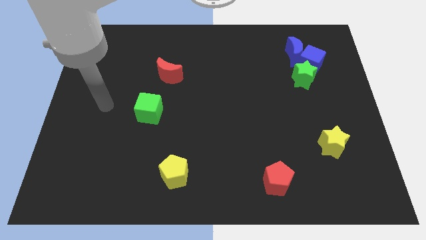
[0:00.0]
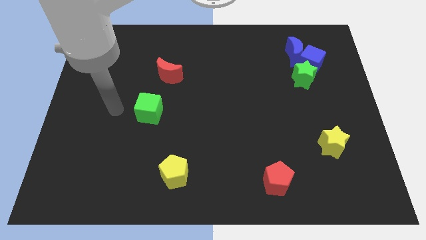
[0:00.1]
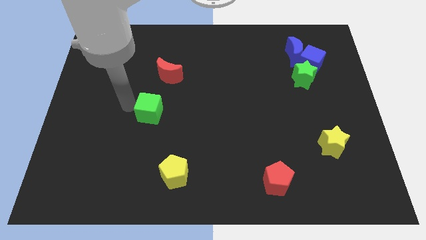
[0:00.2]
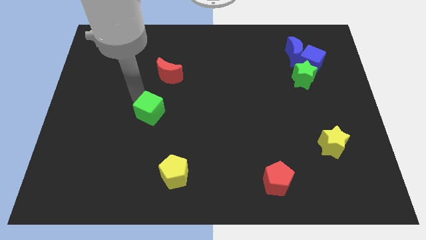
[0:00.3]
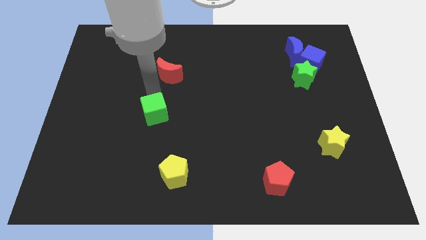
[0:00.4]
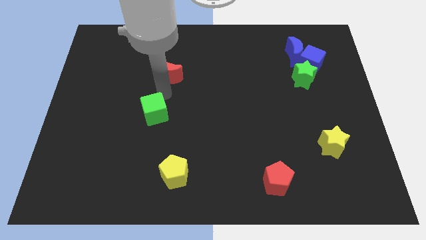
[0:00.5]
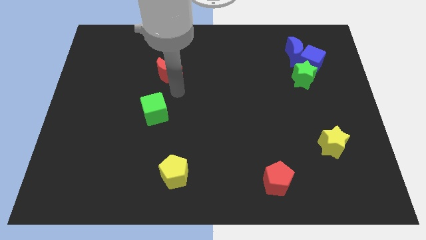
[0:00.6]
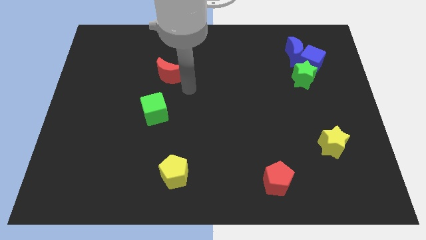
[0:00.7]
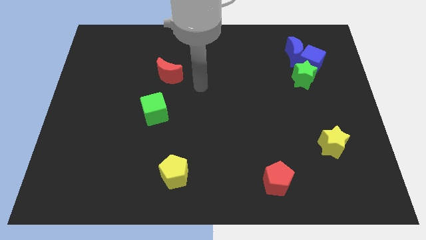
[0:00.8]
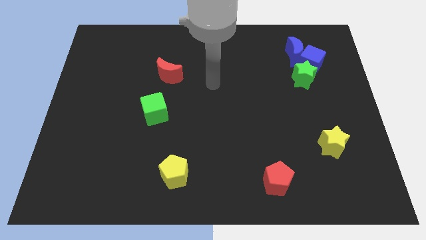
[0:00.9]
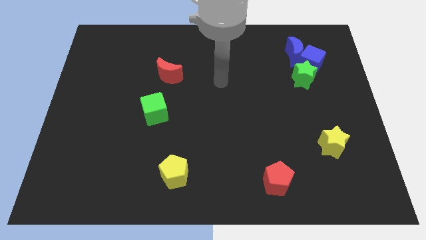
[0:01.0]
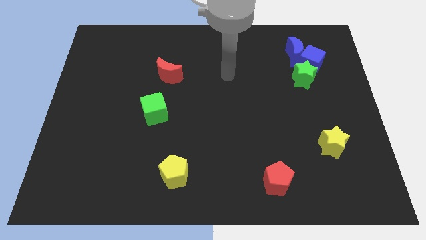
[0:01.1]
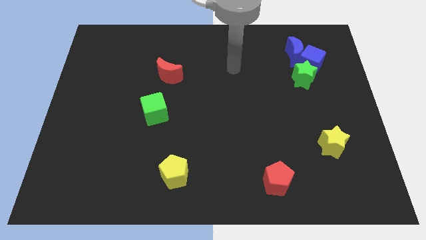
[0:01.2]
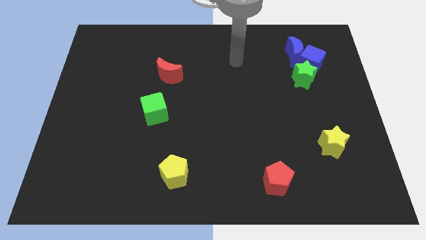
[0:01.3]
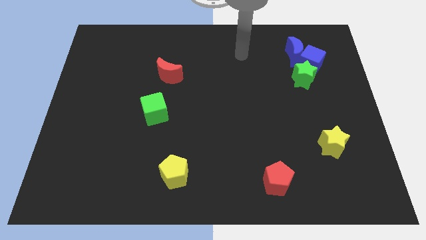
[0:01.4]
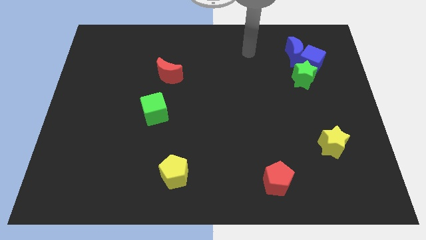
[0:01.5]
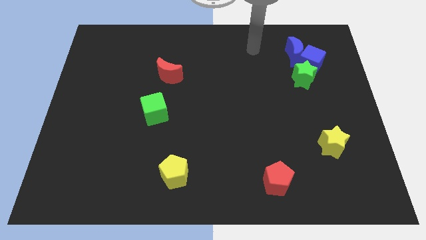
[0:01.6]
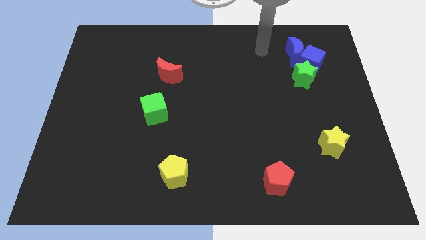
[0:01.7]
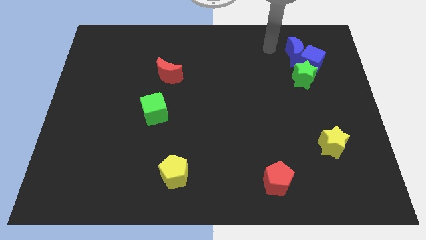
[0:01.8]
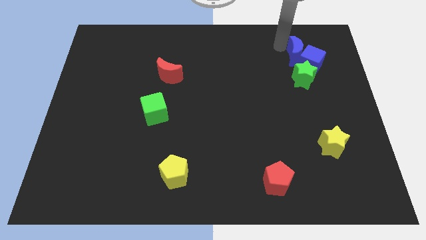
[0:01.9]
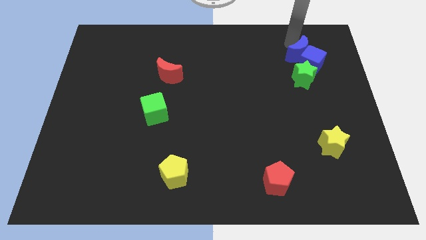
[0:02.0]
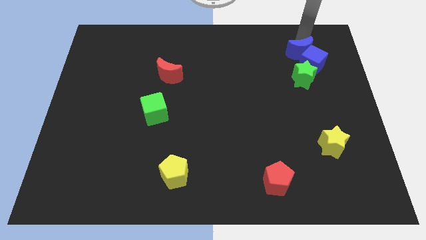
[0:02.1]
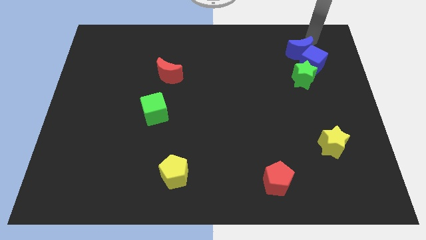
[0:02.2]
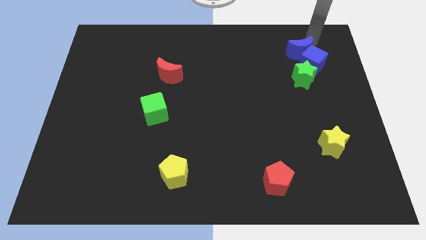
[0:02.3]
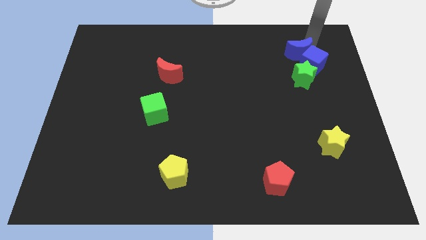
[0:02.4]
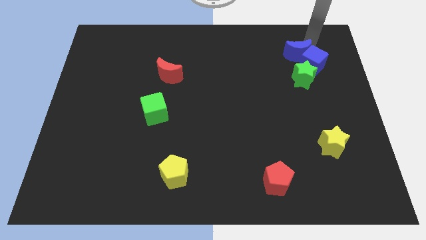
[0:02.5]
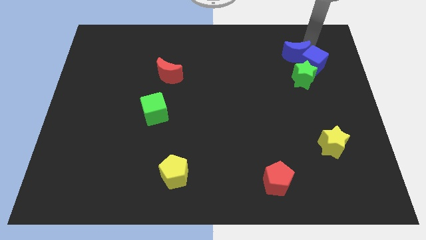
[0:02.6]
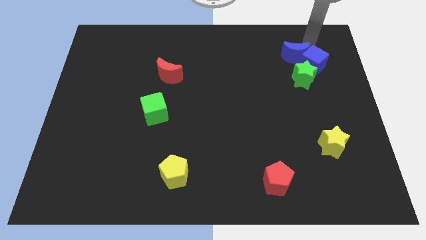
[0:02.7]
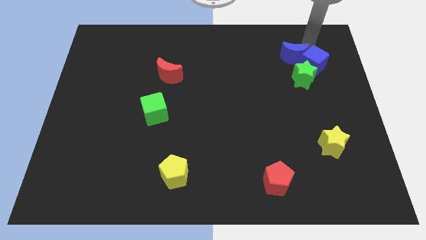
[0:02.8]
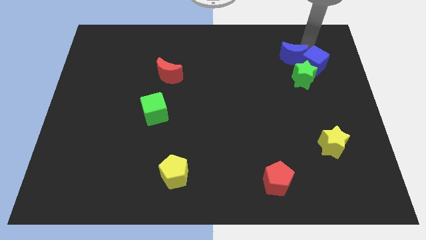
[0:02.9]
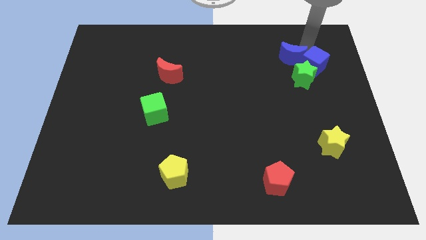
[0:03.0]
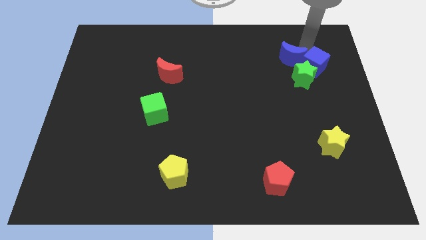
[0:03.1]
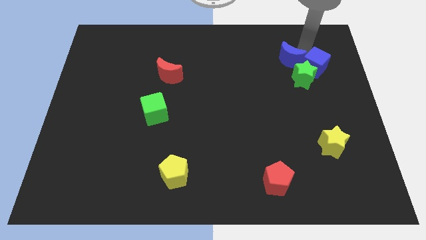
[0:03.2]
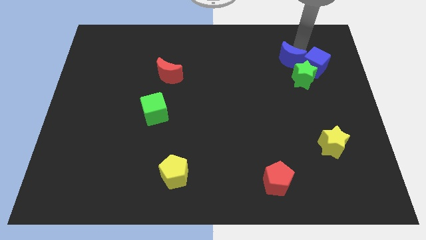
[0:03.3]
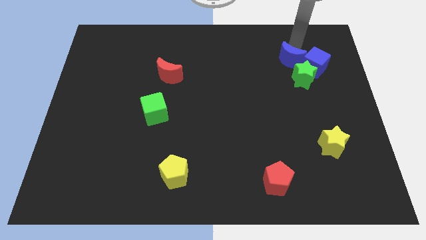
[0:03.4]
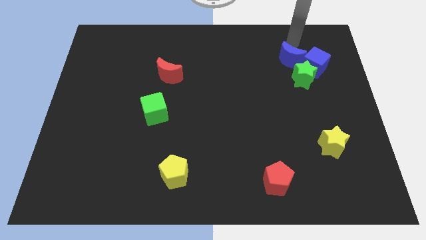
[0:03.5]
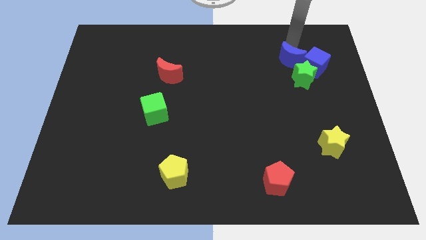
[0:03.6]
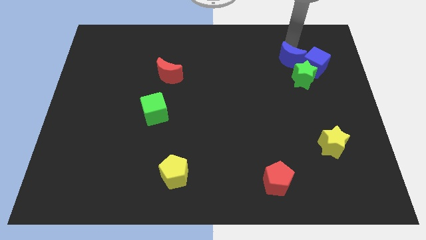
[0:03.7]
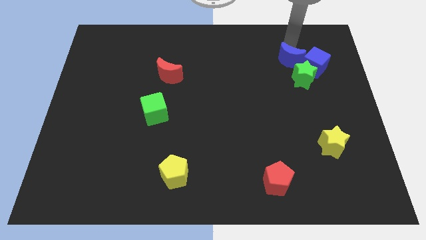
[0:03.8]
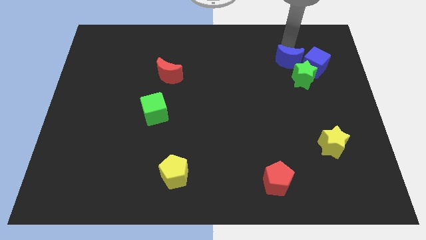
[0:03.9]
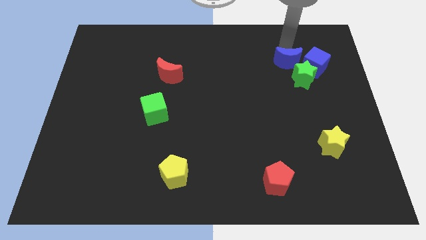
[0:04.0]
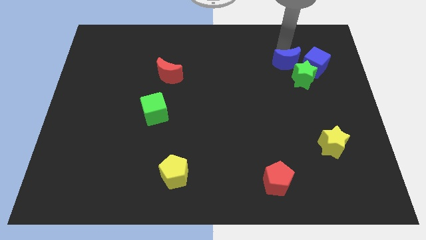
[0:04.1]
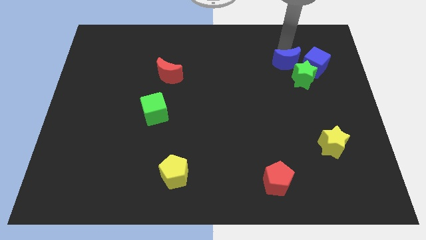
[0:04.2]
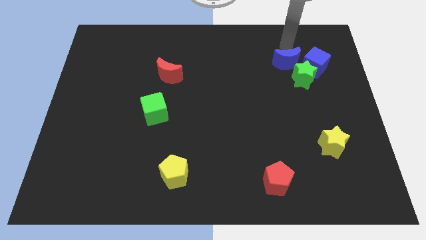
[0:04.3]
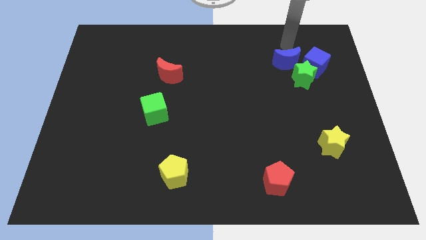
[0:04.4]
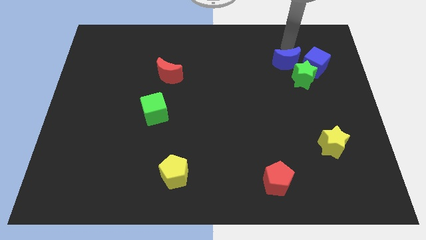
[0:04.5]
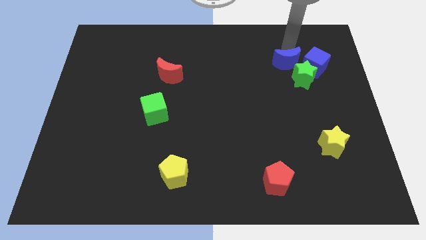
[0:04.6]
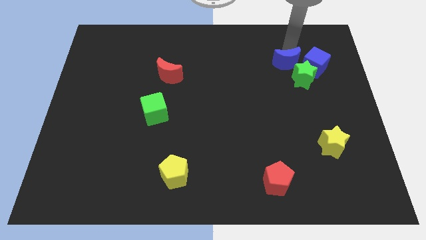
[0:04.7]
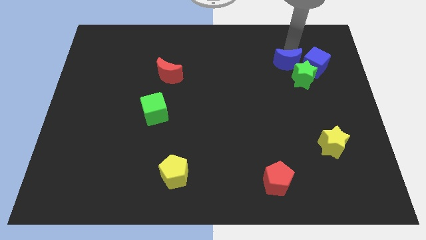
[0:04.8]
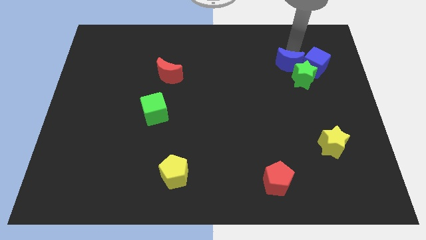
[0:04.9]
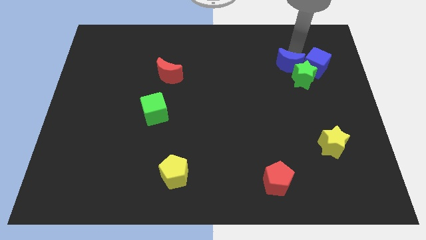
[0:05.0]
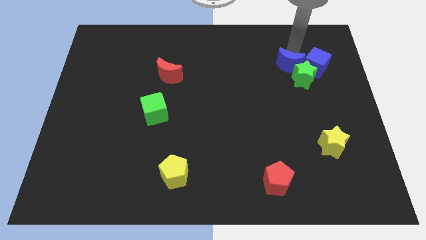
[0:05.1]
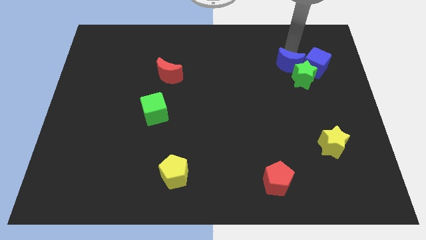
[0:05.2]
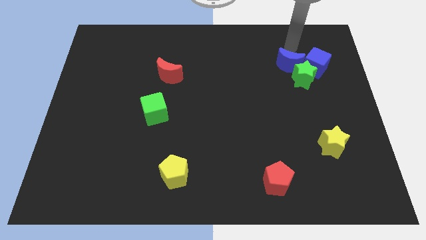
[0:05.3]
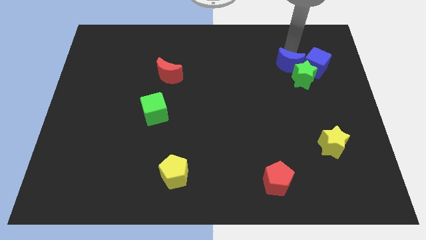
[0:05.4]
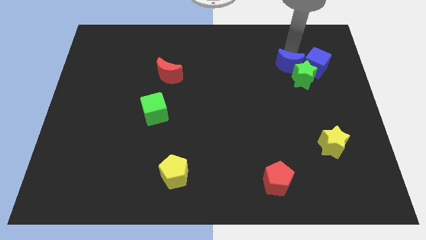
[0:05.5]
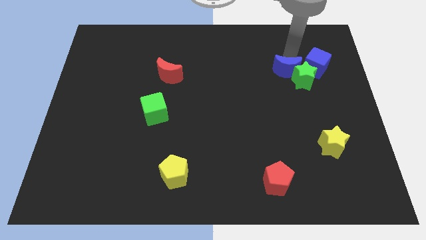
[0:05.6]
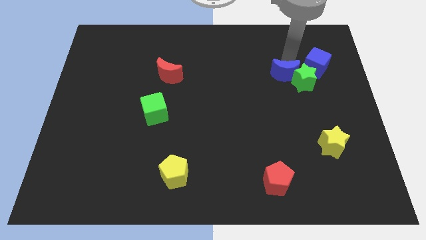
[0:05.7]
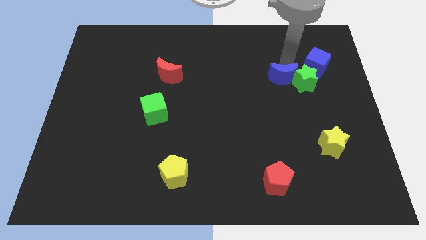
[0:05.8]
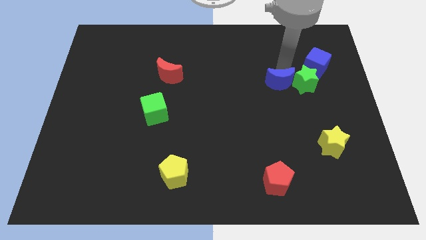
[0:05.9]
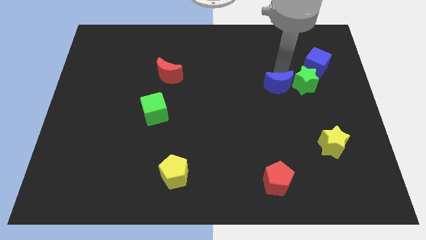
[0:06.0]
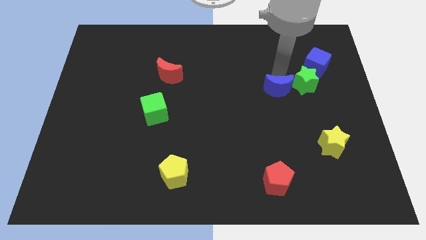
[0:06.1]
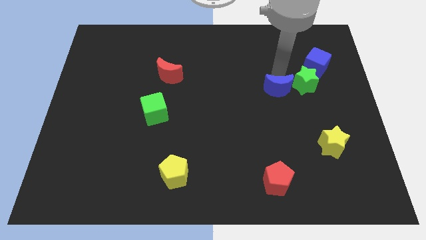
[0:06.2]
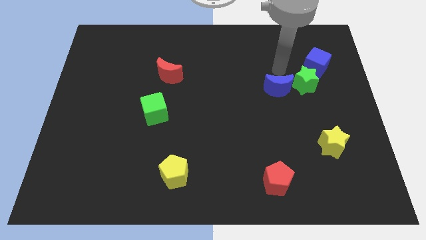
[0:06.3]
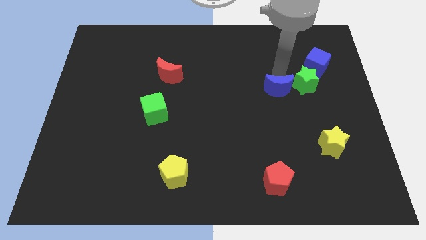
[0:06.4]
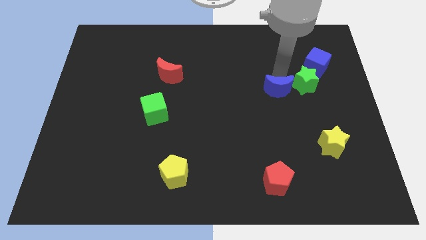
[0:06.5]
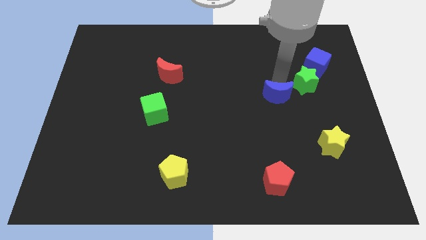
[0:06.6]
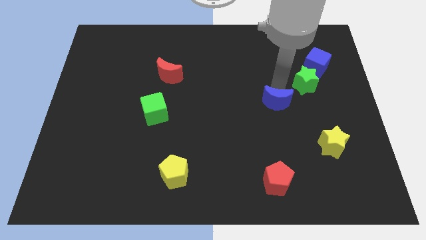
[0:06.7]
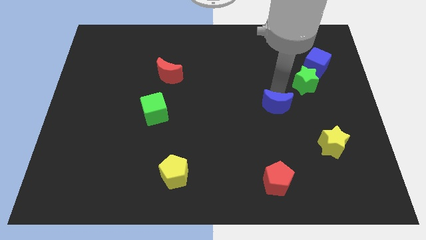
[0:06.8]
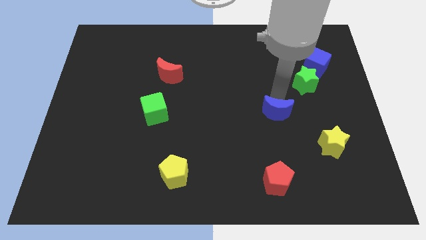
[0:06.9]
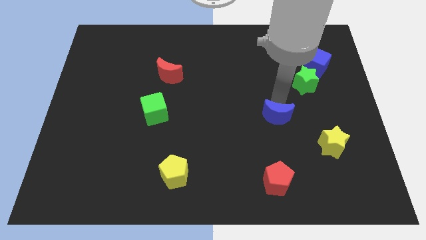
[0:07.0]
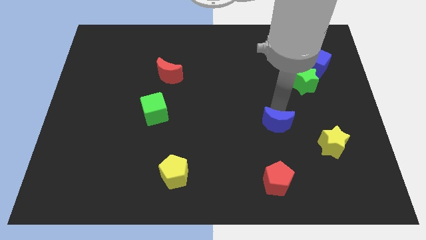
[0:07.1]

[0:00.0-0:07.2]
push the blue moon to the top side of the red pentagon

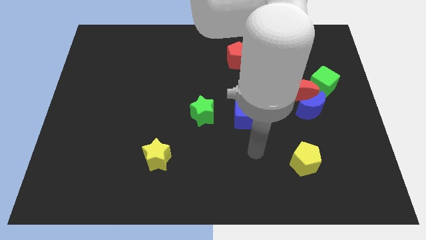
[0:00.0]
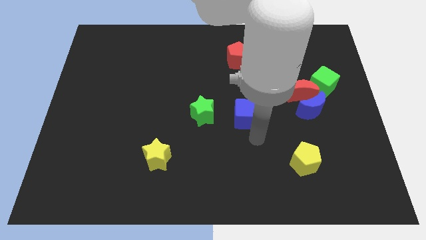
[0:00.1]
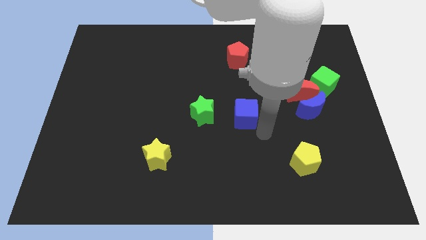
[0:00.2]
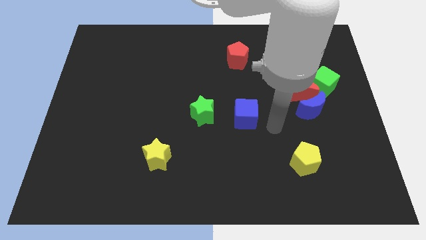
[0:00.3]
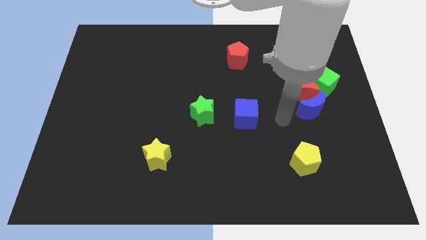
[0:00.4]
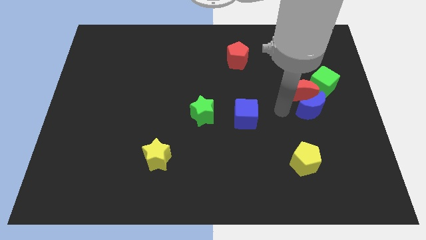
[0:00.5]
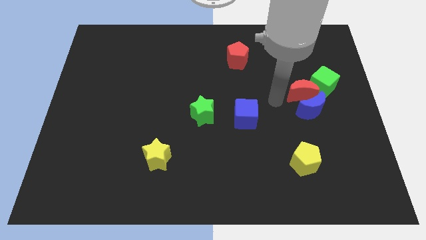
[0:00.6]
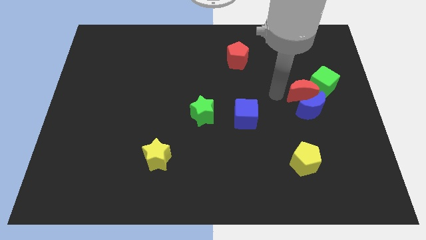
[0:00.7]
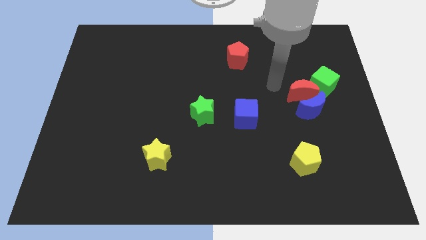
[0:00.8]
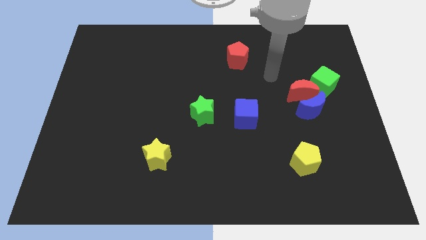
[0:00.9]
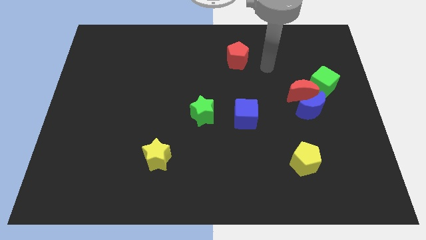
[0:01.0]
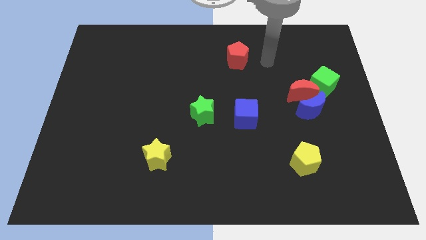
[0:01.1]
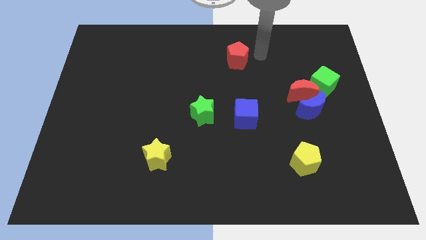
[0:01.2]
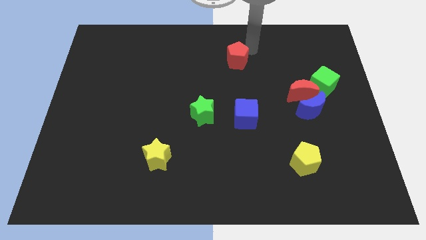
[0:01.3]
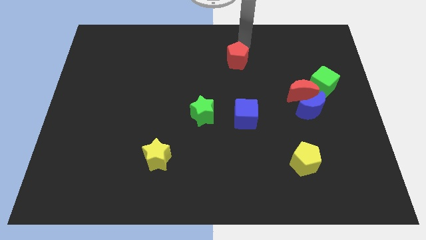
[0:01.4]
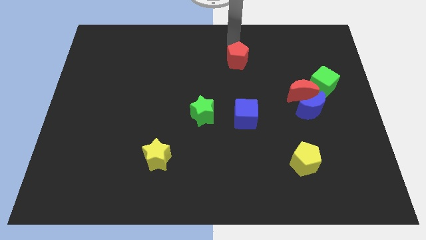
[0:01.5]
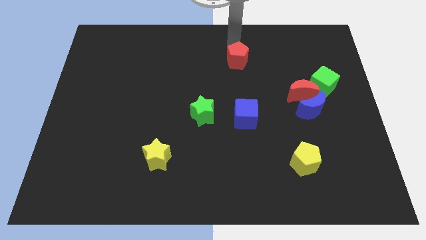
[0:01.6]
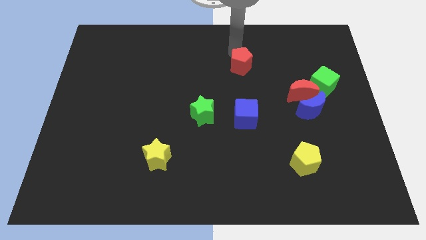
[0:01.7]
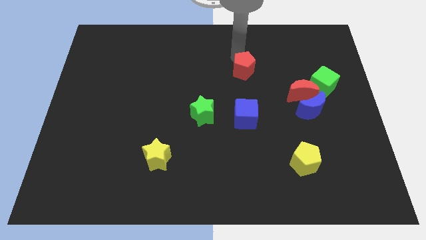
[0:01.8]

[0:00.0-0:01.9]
push the red pentagon to the top side of the blue cube
